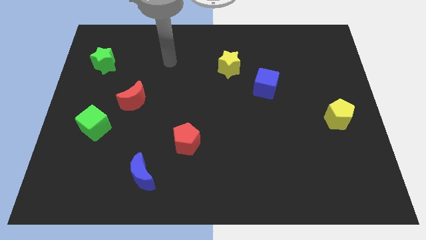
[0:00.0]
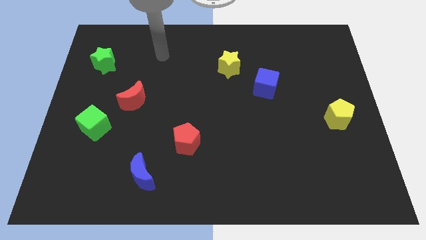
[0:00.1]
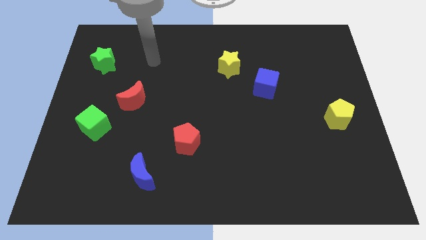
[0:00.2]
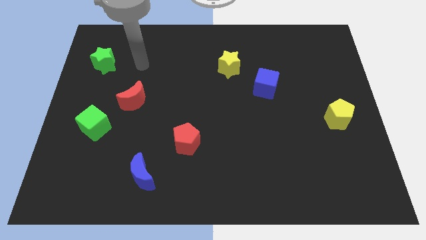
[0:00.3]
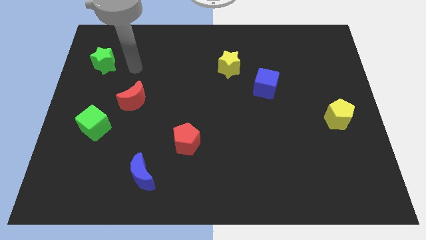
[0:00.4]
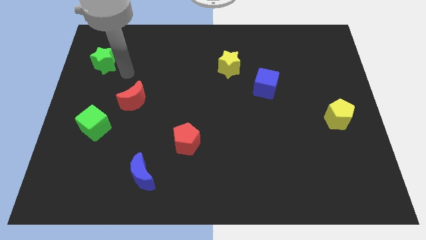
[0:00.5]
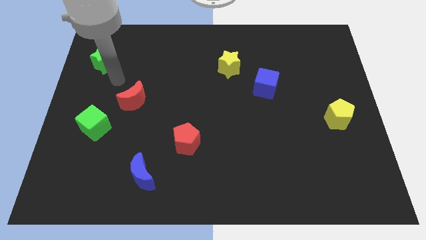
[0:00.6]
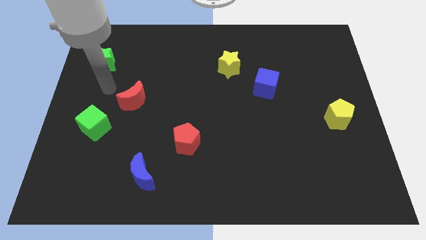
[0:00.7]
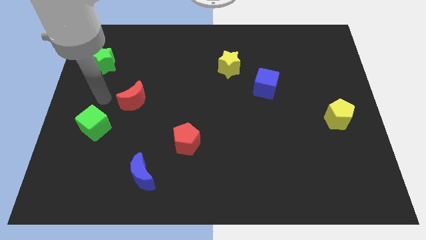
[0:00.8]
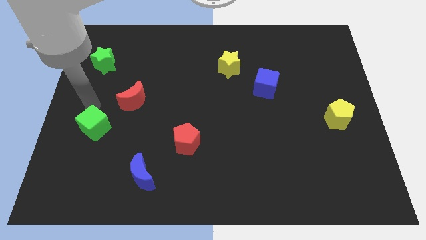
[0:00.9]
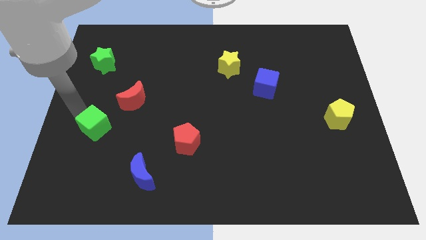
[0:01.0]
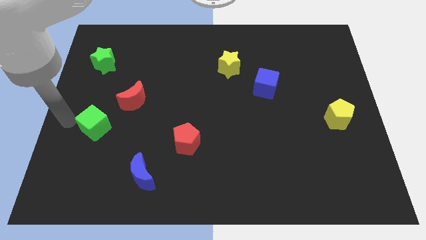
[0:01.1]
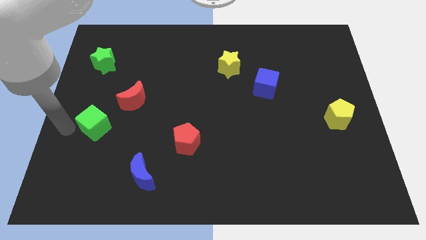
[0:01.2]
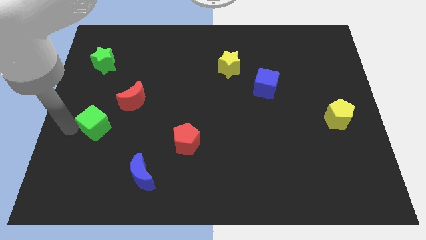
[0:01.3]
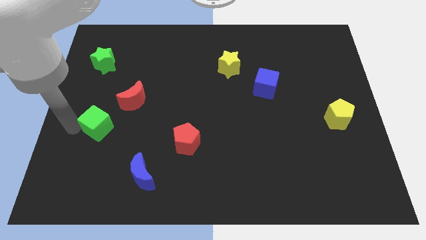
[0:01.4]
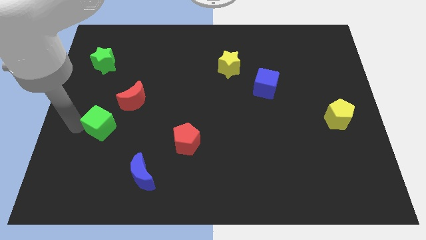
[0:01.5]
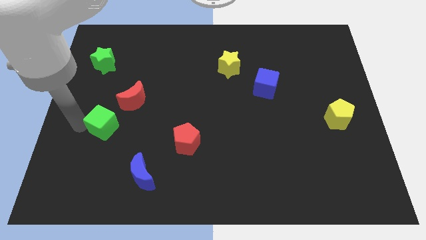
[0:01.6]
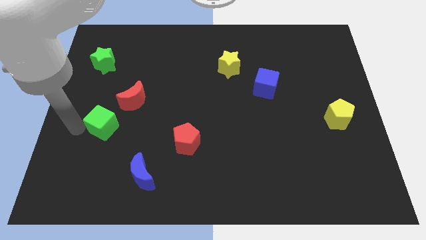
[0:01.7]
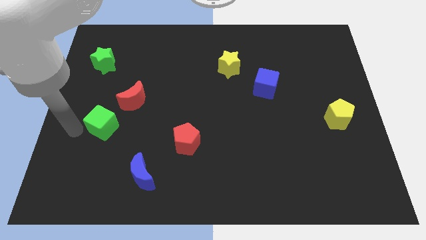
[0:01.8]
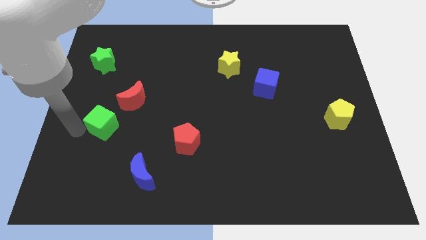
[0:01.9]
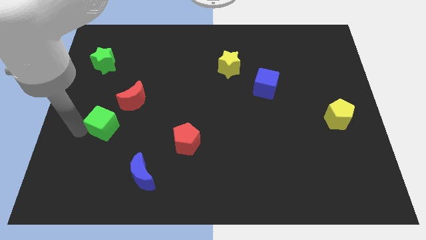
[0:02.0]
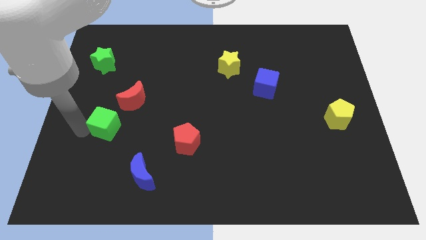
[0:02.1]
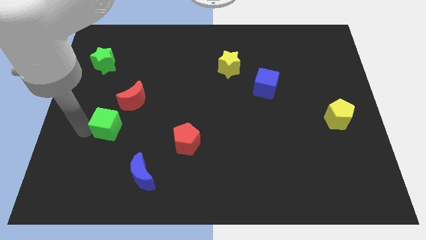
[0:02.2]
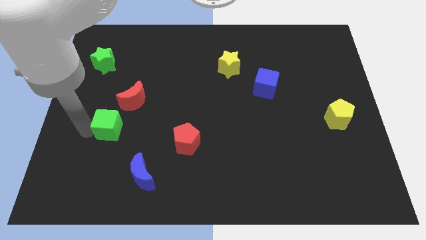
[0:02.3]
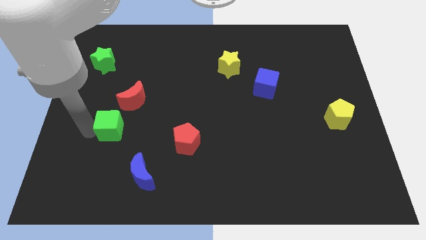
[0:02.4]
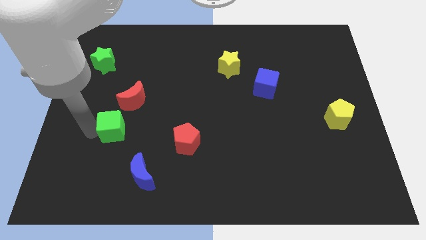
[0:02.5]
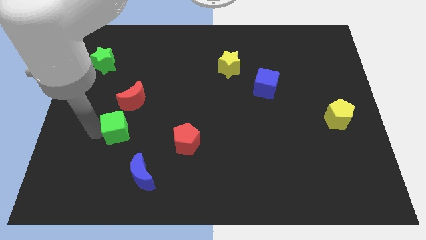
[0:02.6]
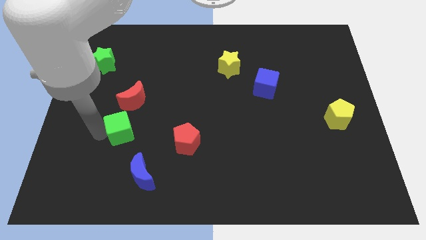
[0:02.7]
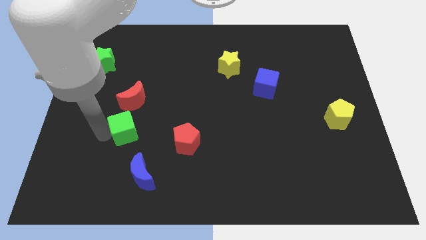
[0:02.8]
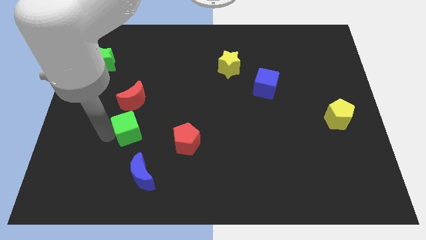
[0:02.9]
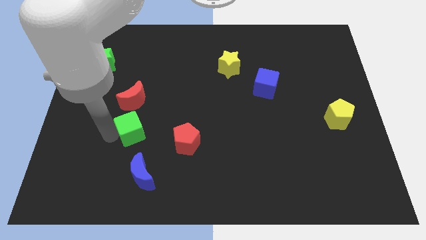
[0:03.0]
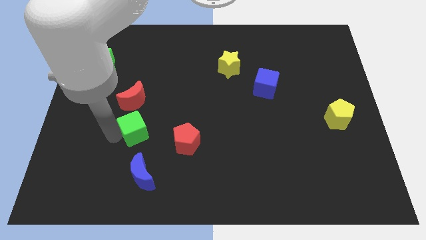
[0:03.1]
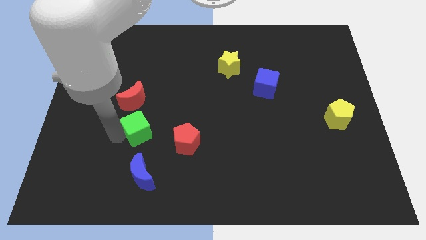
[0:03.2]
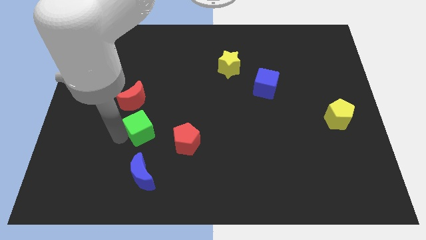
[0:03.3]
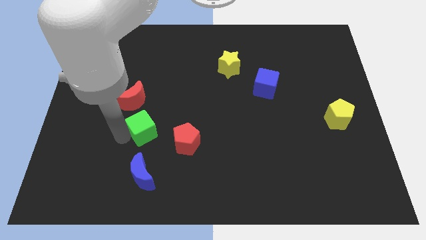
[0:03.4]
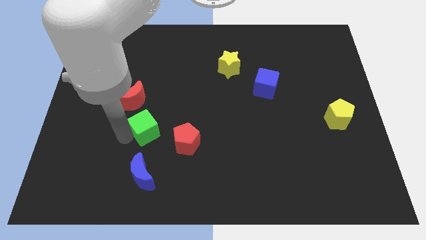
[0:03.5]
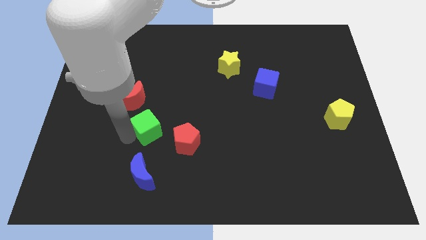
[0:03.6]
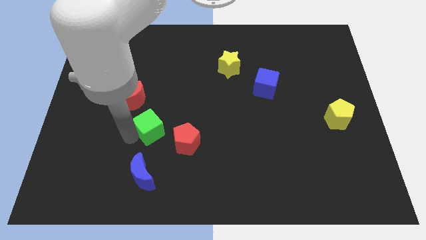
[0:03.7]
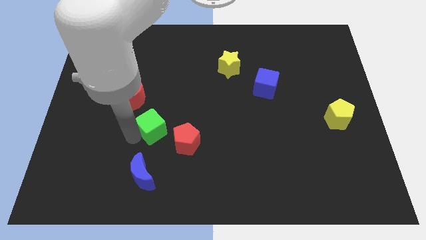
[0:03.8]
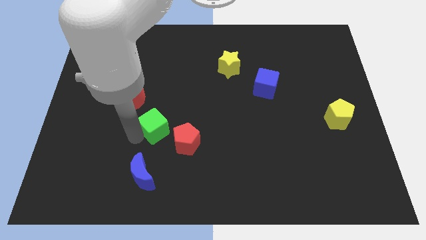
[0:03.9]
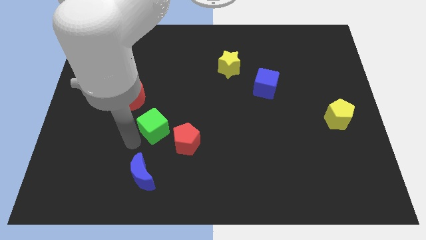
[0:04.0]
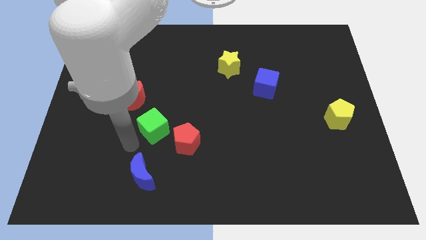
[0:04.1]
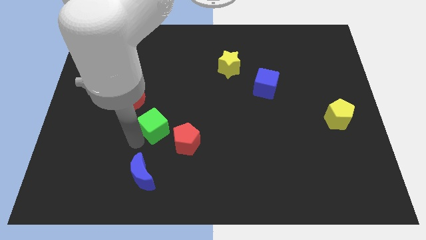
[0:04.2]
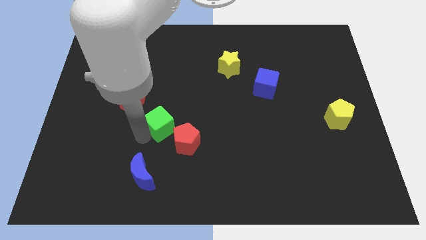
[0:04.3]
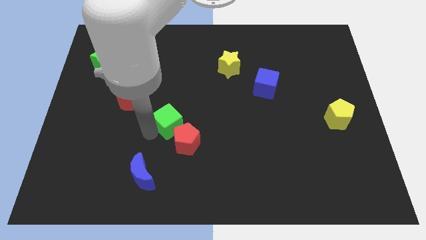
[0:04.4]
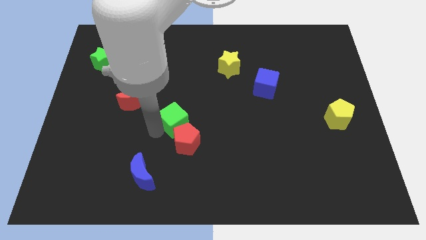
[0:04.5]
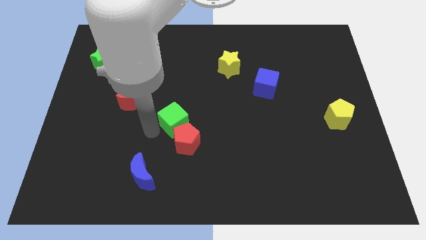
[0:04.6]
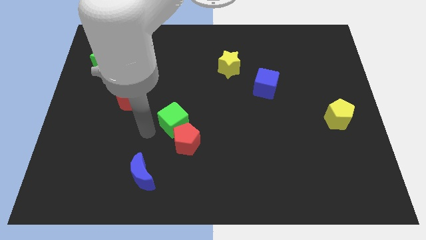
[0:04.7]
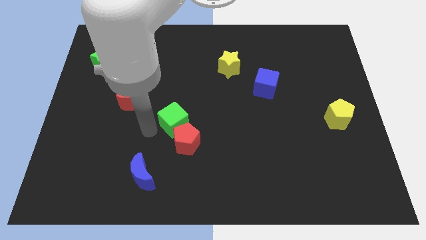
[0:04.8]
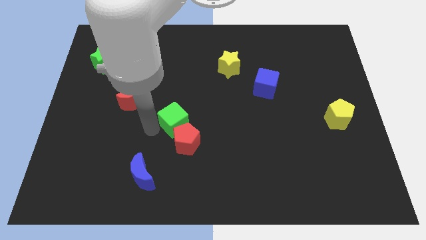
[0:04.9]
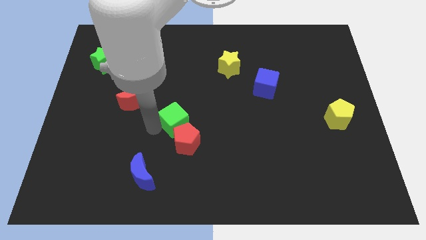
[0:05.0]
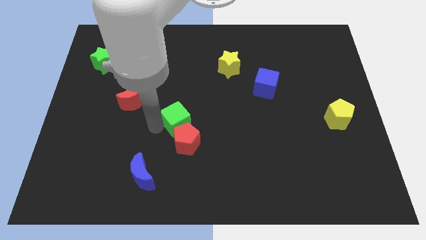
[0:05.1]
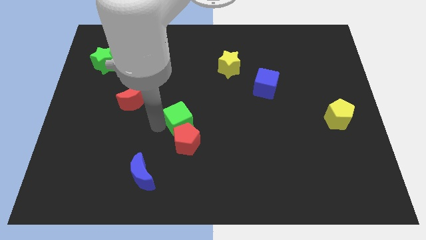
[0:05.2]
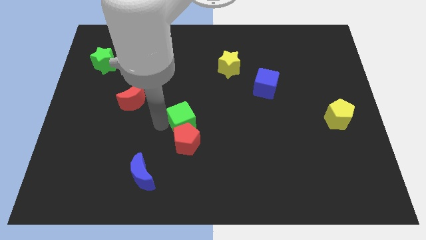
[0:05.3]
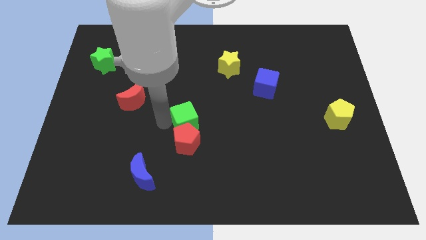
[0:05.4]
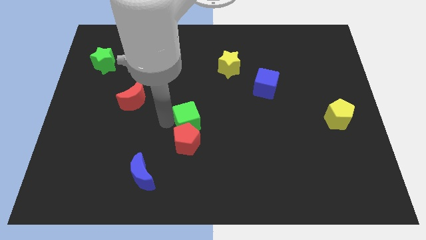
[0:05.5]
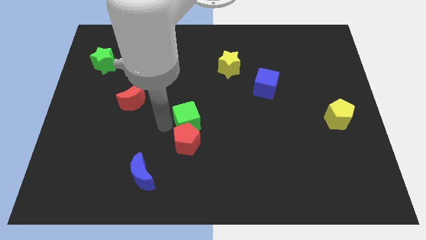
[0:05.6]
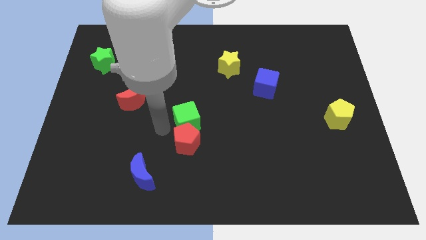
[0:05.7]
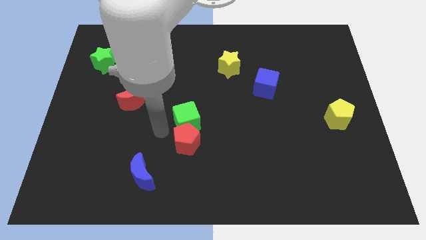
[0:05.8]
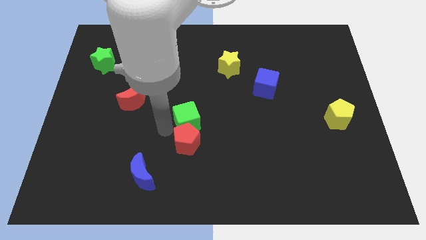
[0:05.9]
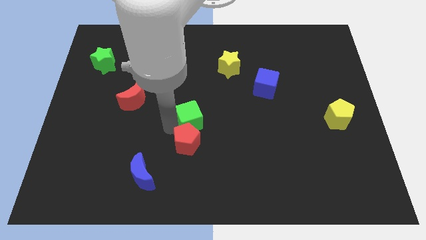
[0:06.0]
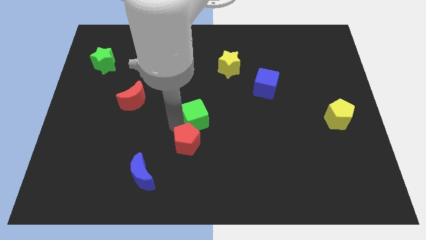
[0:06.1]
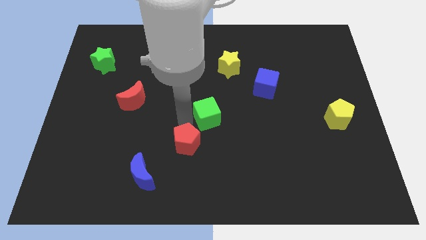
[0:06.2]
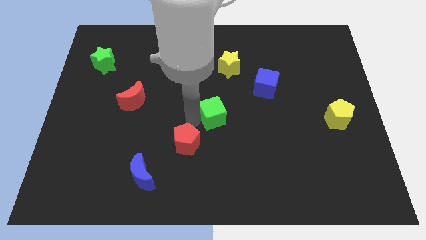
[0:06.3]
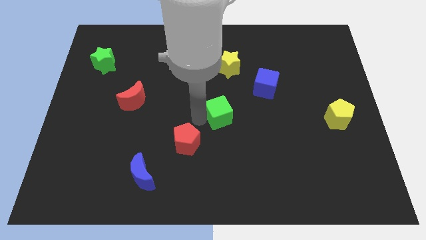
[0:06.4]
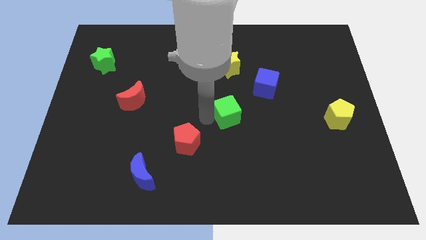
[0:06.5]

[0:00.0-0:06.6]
put the green cube diagonally down and to the left of the blue cube

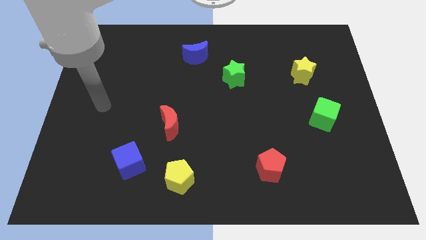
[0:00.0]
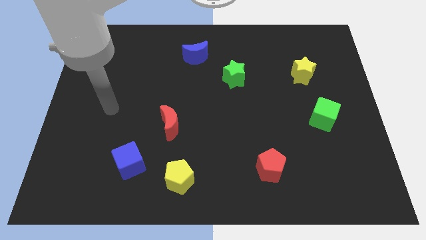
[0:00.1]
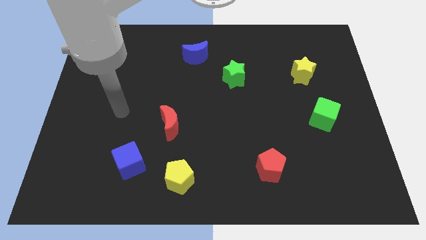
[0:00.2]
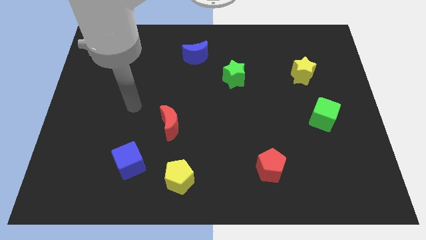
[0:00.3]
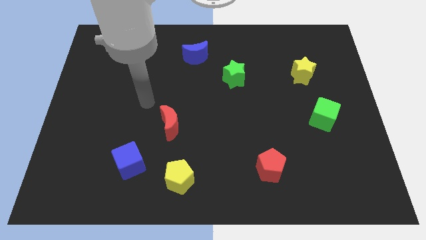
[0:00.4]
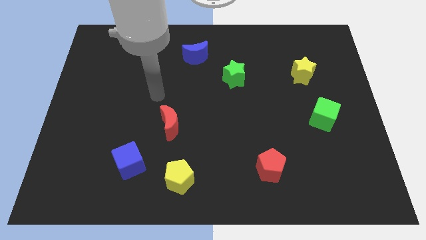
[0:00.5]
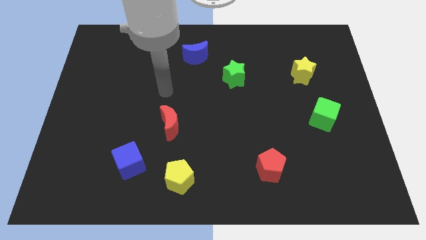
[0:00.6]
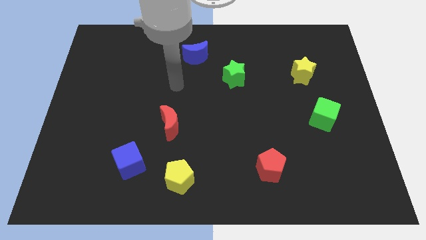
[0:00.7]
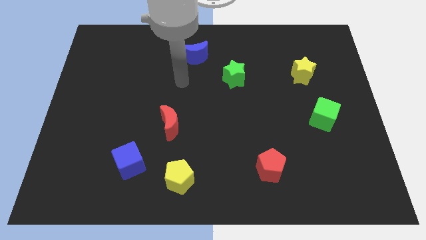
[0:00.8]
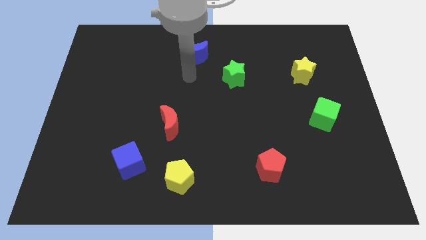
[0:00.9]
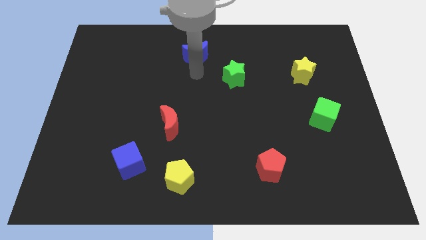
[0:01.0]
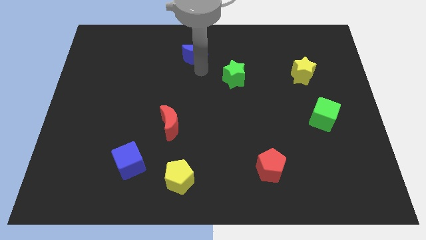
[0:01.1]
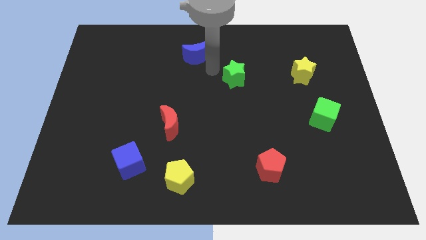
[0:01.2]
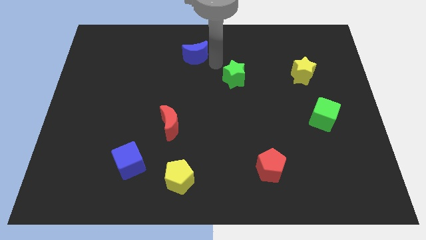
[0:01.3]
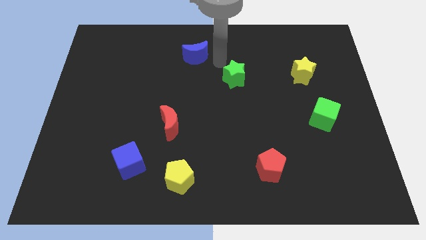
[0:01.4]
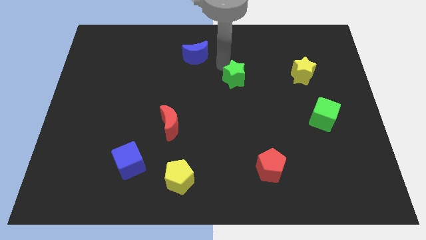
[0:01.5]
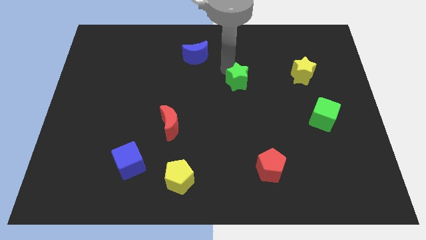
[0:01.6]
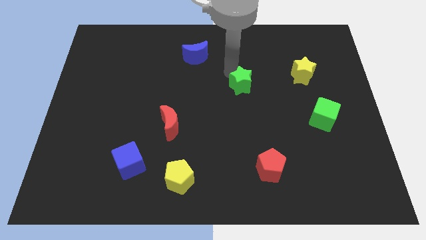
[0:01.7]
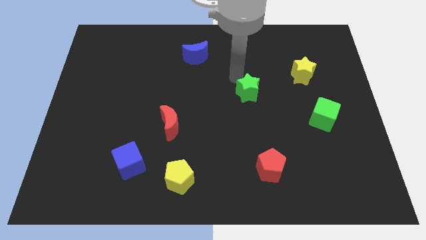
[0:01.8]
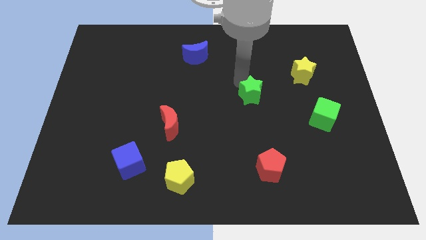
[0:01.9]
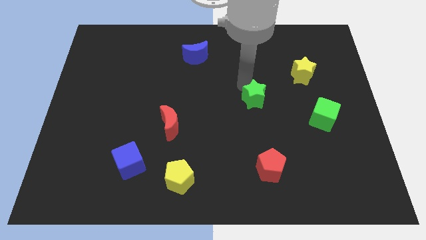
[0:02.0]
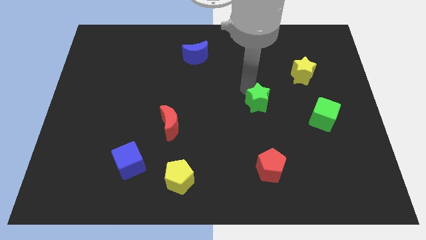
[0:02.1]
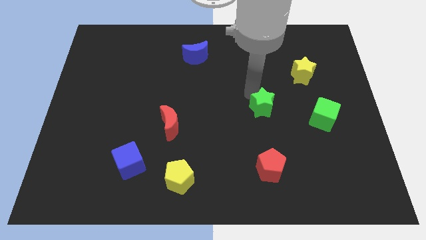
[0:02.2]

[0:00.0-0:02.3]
slide the green star to the left side of the green cube
